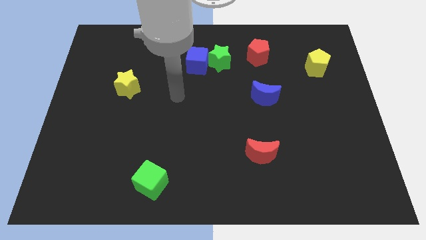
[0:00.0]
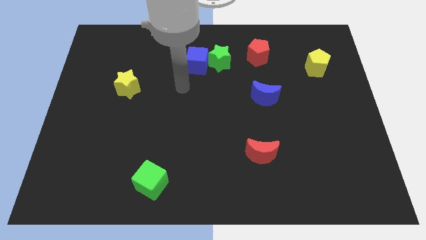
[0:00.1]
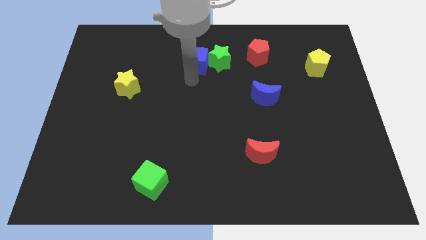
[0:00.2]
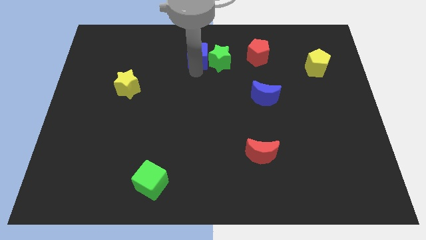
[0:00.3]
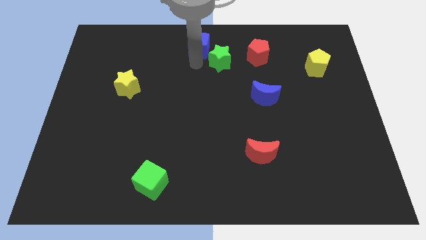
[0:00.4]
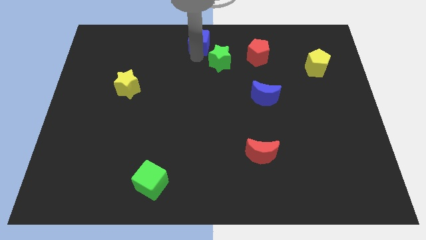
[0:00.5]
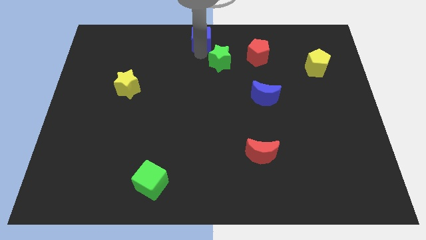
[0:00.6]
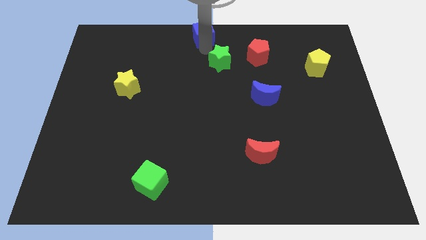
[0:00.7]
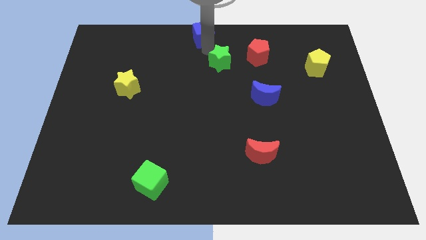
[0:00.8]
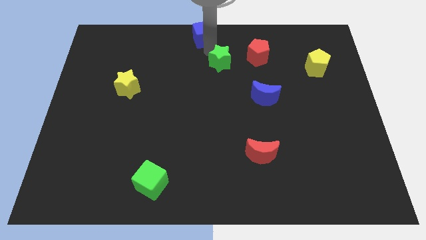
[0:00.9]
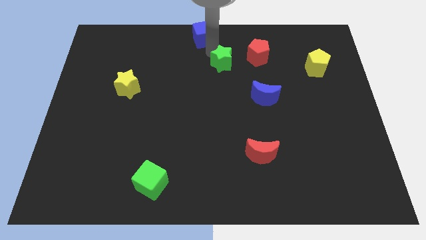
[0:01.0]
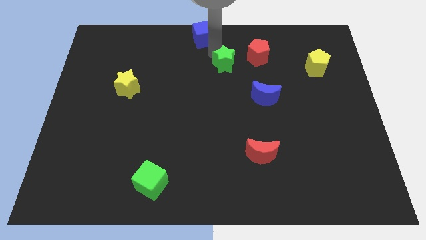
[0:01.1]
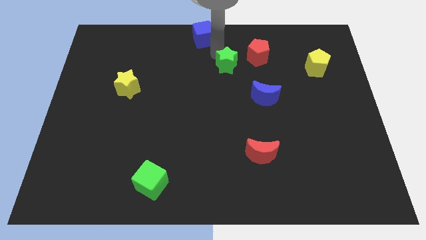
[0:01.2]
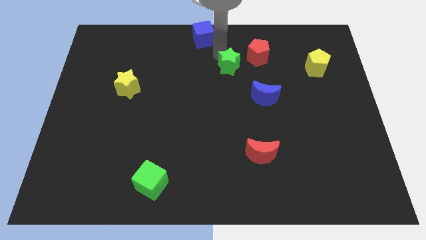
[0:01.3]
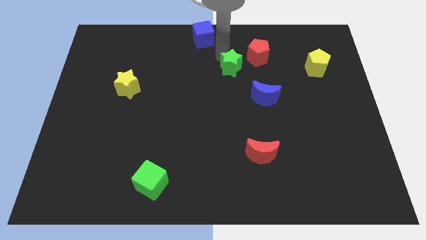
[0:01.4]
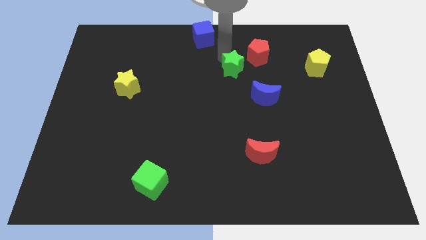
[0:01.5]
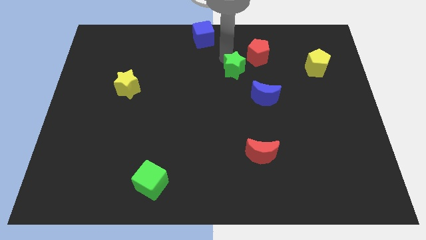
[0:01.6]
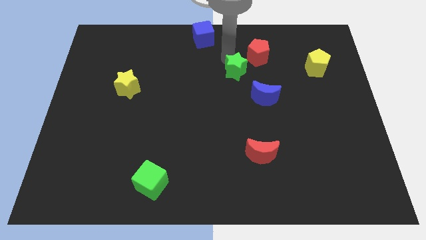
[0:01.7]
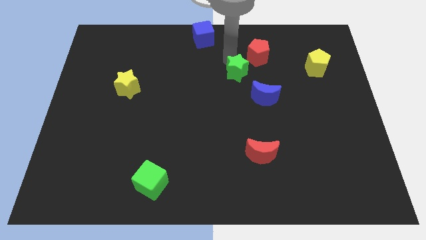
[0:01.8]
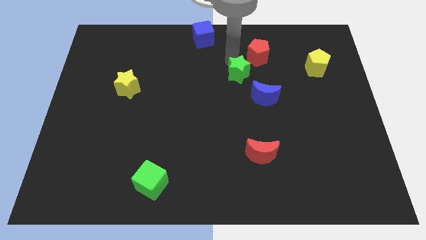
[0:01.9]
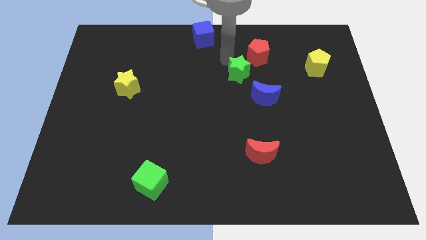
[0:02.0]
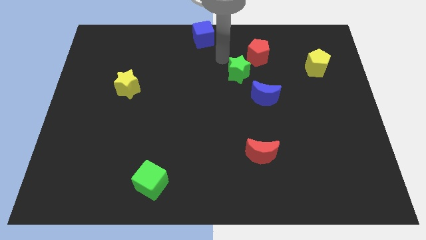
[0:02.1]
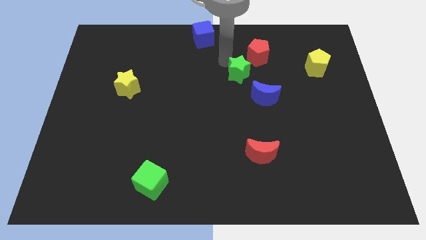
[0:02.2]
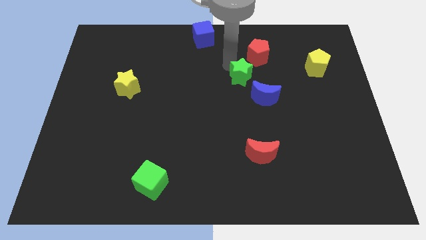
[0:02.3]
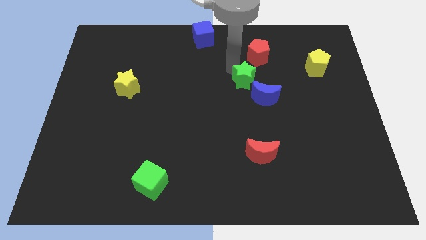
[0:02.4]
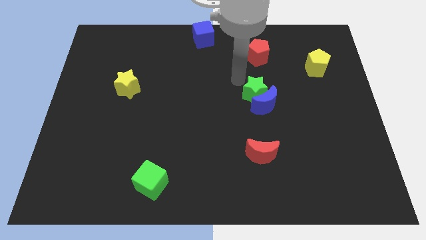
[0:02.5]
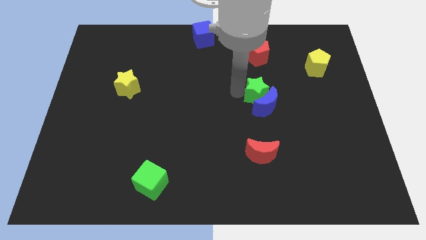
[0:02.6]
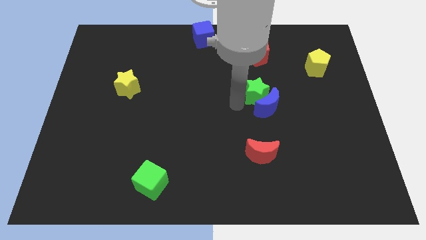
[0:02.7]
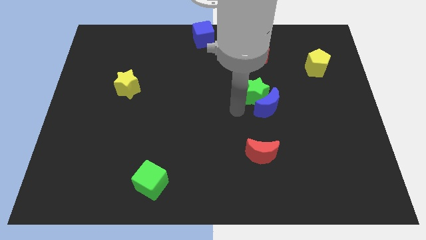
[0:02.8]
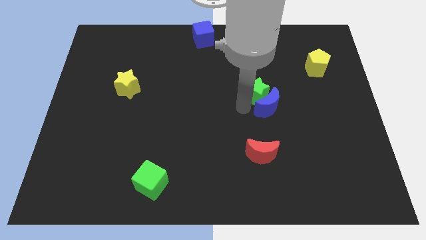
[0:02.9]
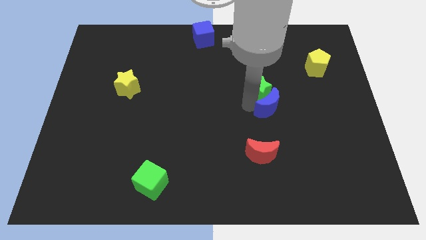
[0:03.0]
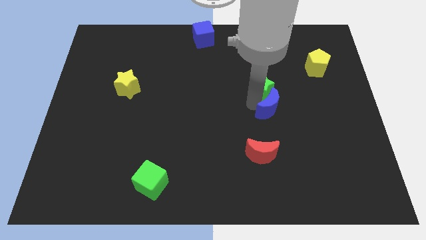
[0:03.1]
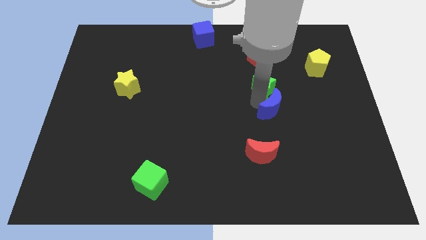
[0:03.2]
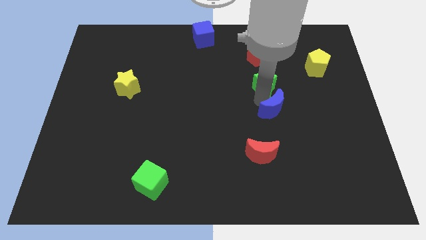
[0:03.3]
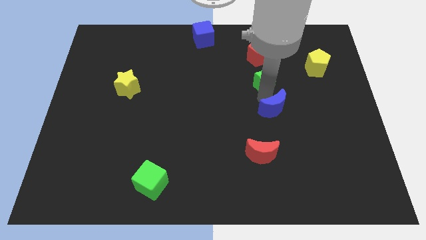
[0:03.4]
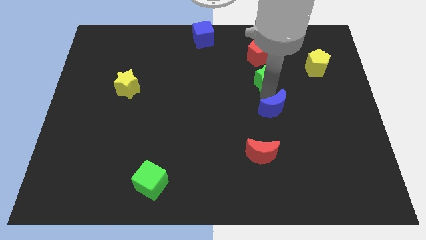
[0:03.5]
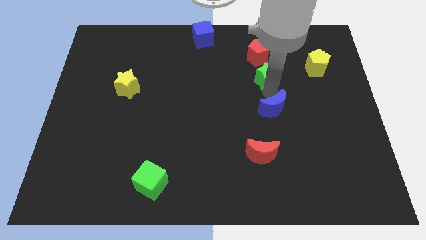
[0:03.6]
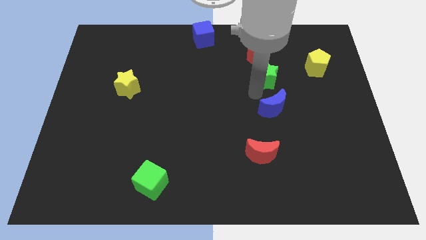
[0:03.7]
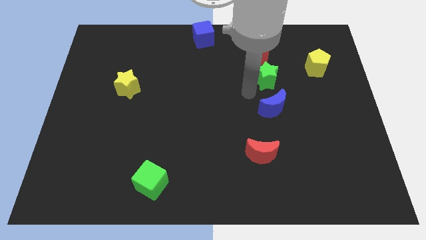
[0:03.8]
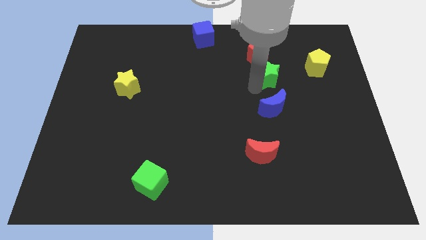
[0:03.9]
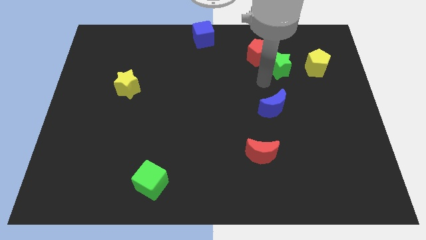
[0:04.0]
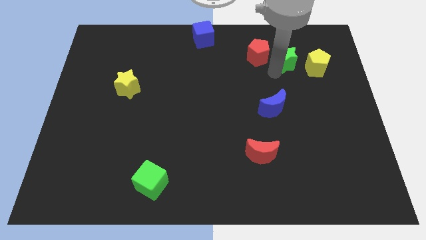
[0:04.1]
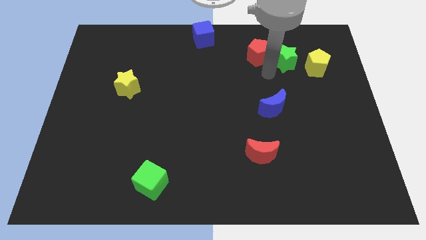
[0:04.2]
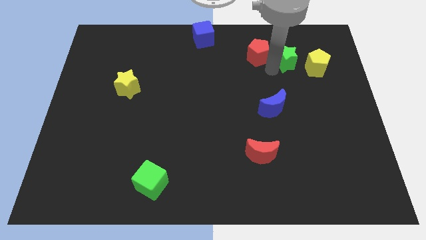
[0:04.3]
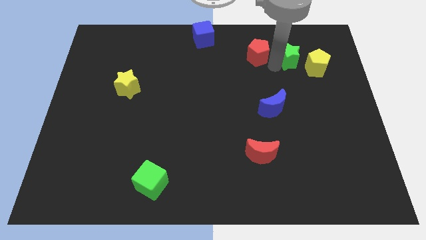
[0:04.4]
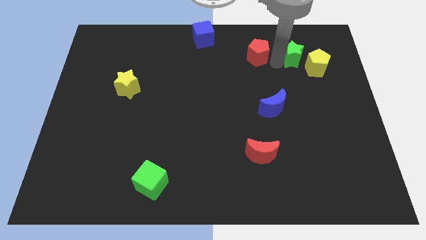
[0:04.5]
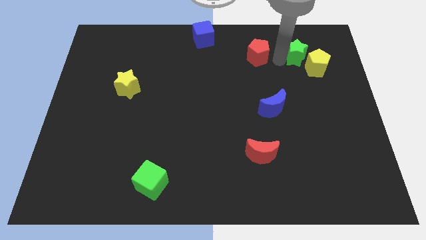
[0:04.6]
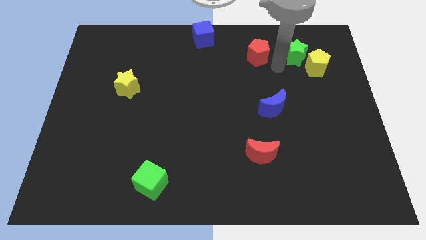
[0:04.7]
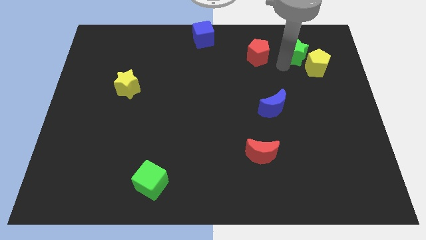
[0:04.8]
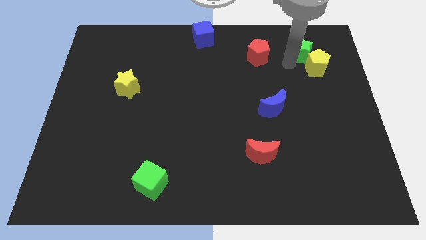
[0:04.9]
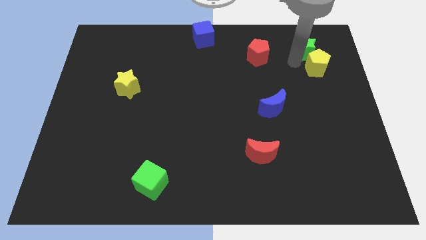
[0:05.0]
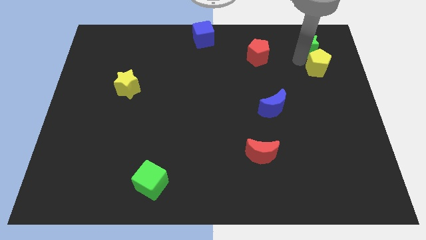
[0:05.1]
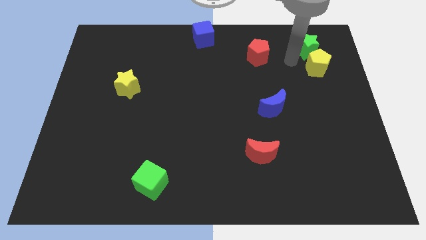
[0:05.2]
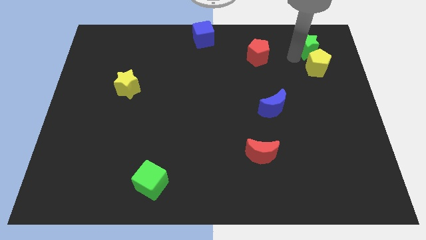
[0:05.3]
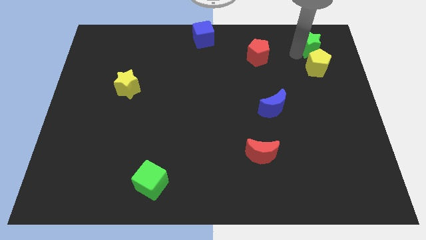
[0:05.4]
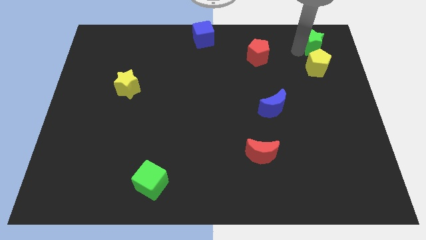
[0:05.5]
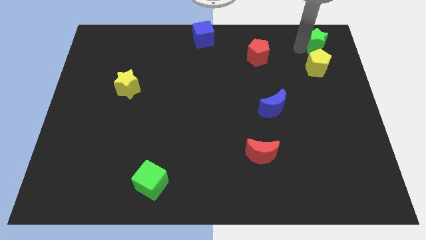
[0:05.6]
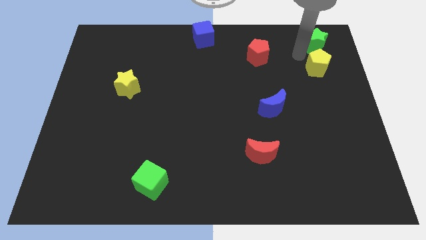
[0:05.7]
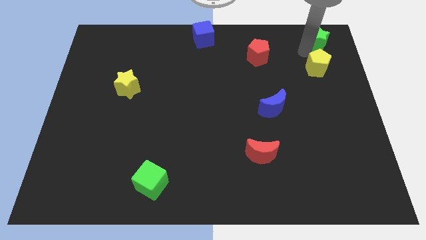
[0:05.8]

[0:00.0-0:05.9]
push the green star to the top right of the board

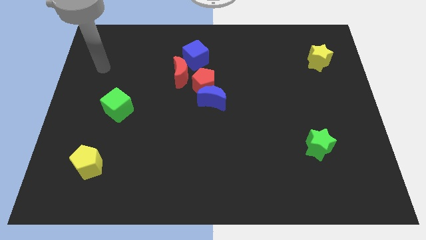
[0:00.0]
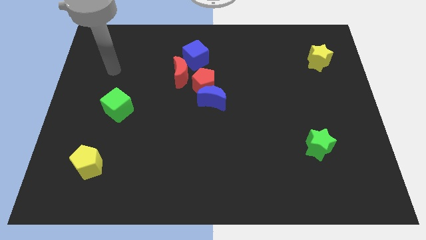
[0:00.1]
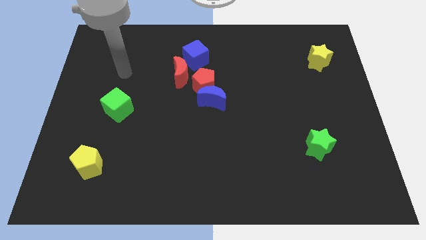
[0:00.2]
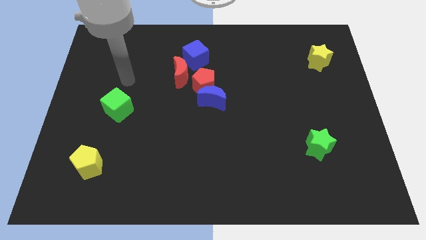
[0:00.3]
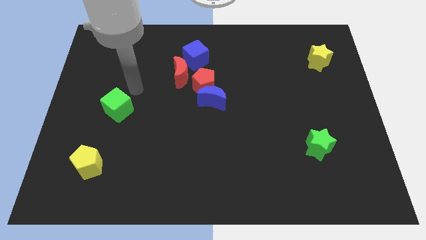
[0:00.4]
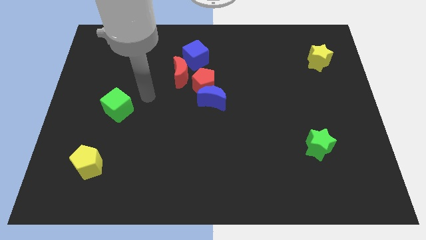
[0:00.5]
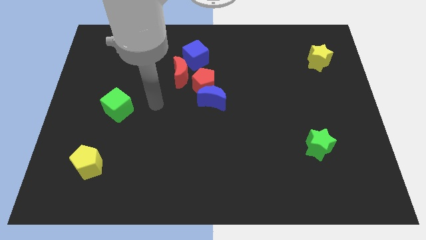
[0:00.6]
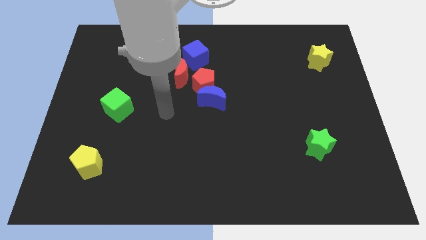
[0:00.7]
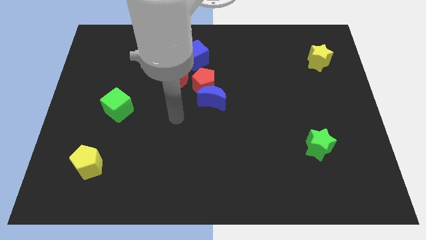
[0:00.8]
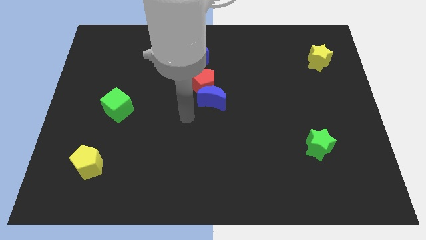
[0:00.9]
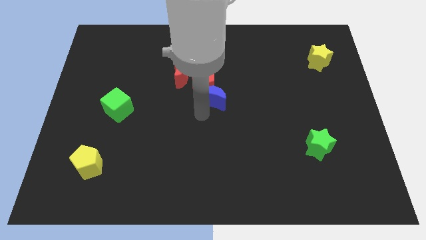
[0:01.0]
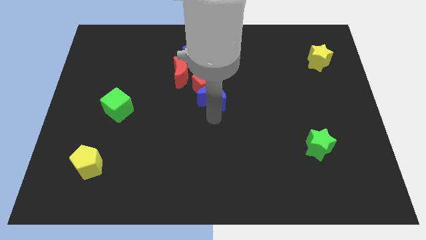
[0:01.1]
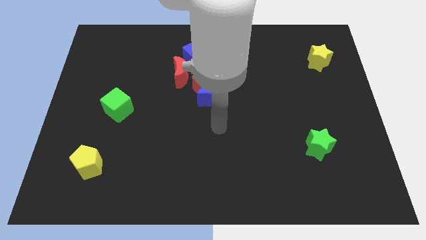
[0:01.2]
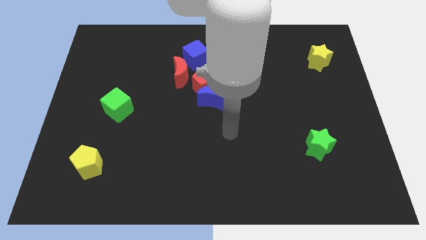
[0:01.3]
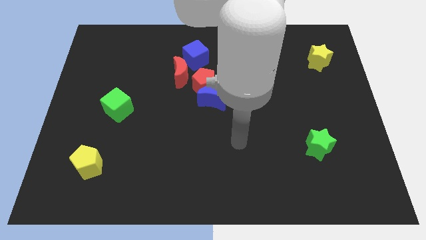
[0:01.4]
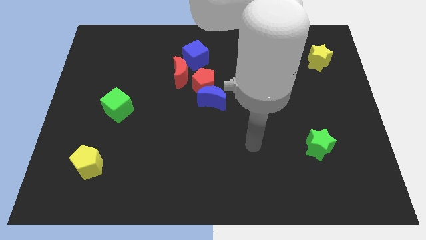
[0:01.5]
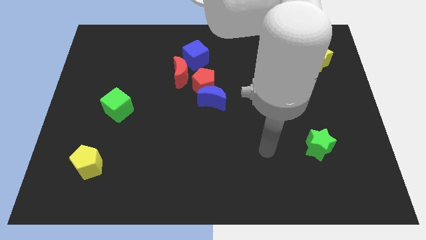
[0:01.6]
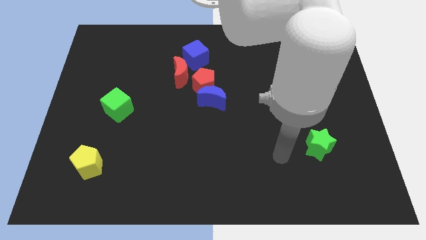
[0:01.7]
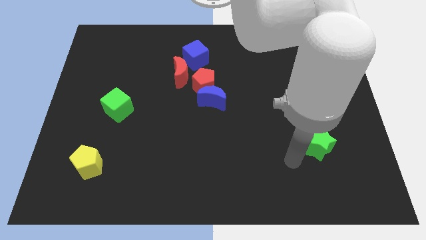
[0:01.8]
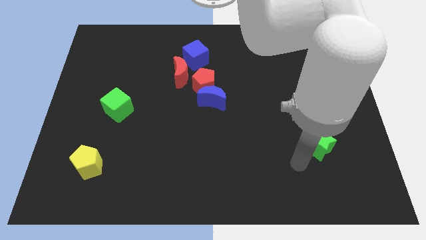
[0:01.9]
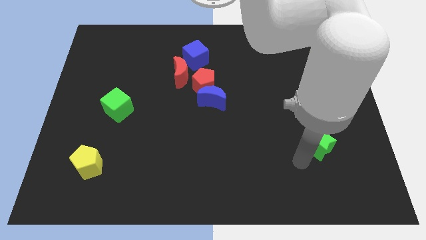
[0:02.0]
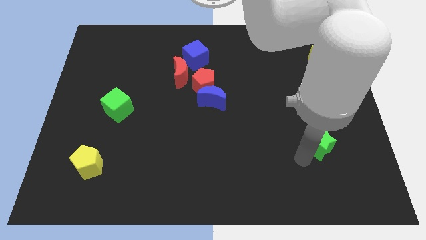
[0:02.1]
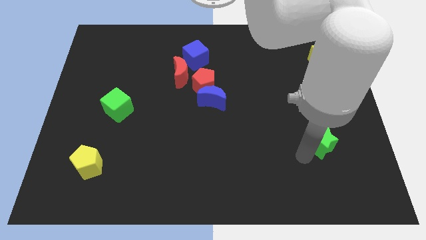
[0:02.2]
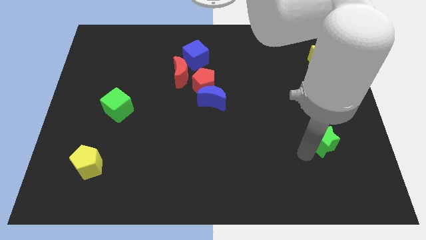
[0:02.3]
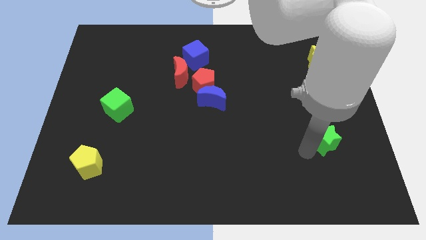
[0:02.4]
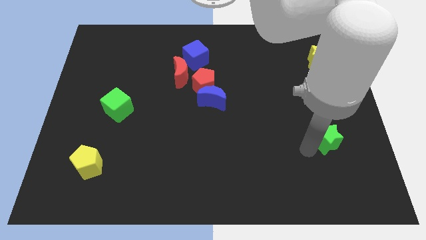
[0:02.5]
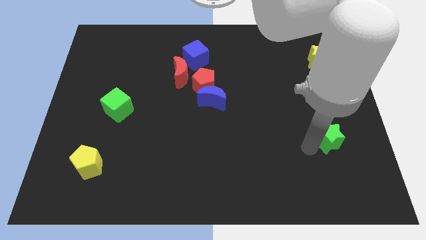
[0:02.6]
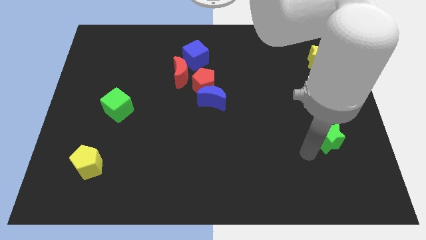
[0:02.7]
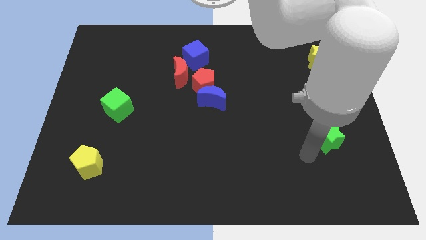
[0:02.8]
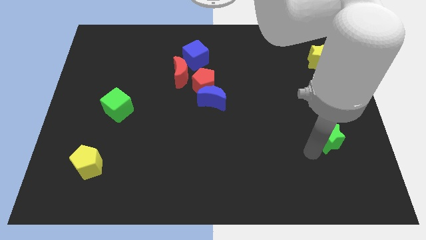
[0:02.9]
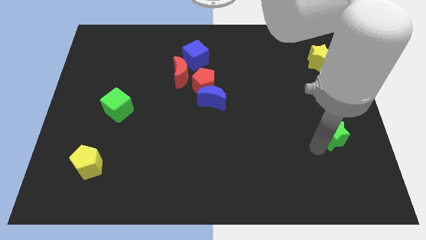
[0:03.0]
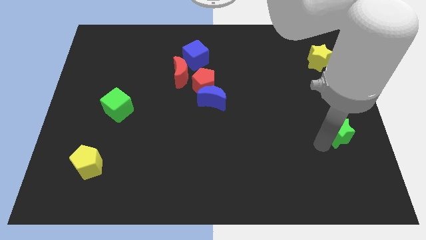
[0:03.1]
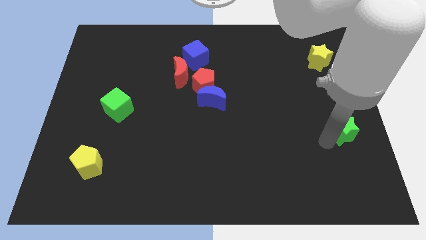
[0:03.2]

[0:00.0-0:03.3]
put the green star to the right side
